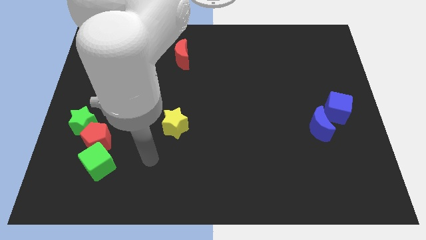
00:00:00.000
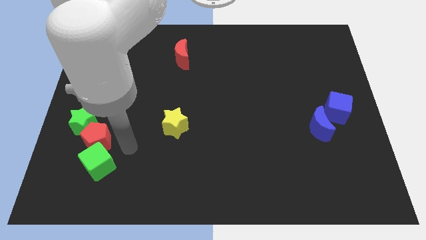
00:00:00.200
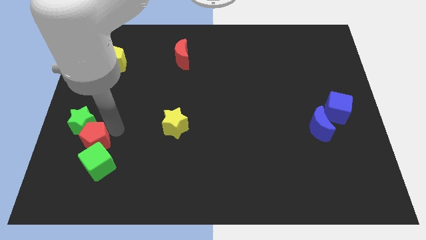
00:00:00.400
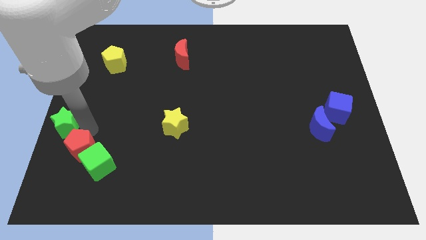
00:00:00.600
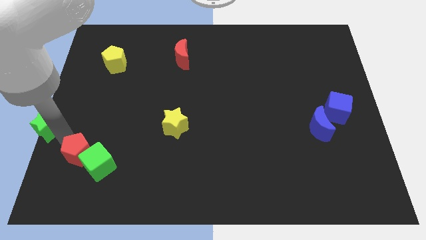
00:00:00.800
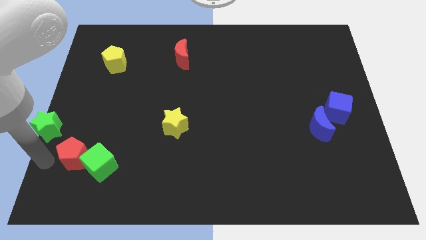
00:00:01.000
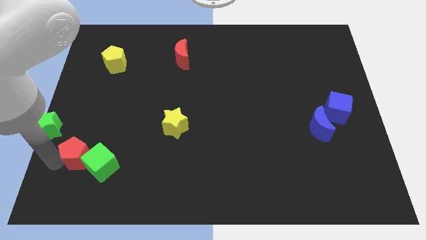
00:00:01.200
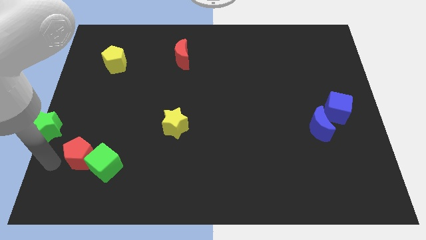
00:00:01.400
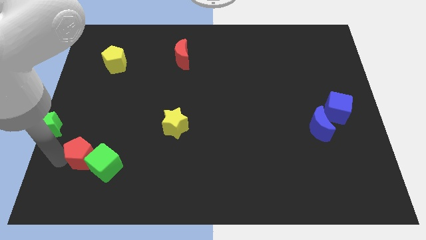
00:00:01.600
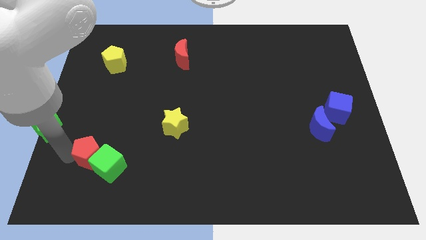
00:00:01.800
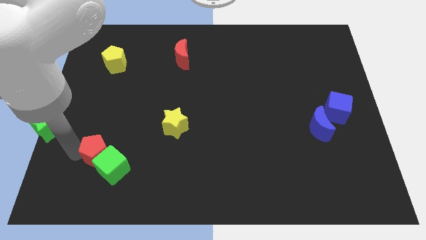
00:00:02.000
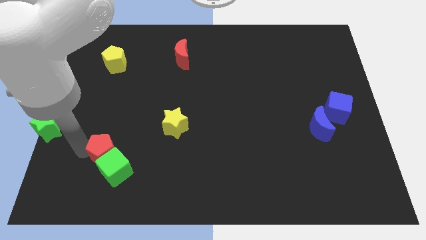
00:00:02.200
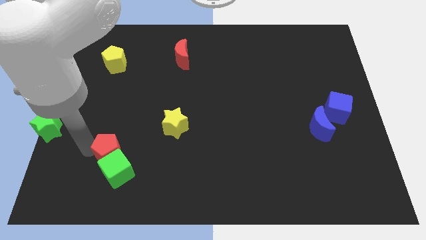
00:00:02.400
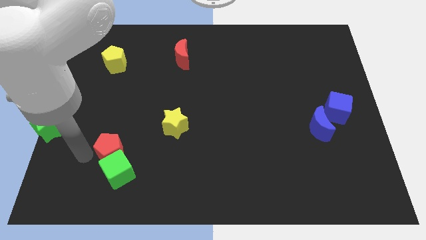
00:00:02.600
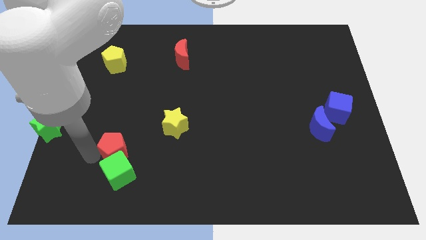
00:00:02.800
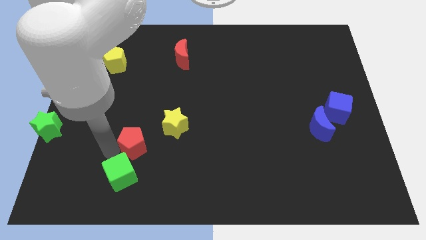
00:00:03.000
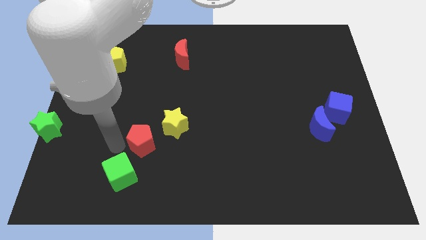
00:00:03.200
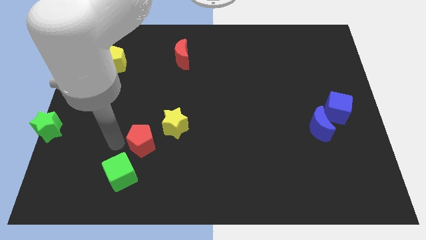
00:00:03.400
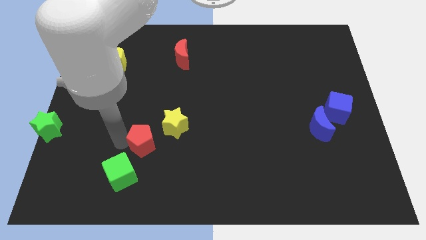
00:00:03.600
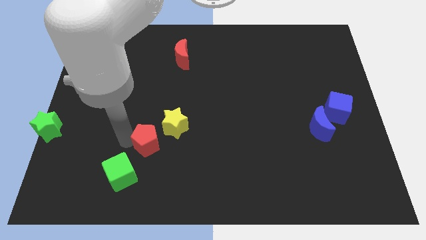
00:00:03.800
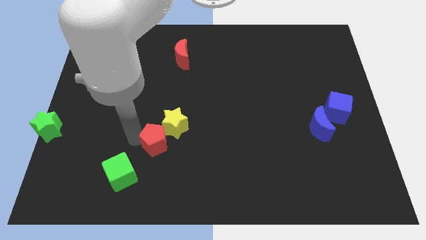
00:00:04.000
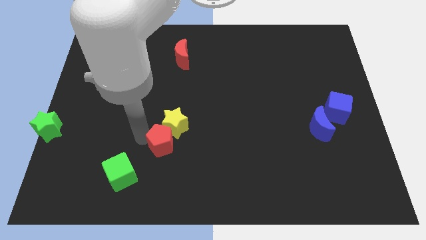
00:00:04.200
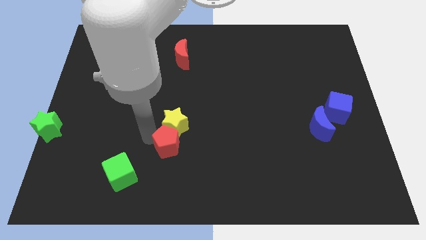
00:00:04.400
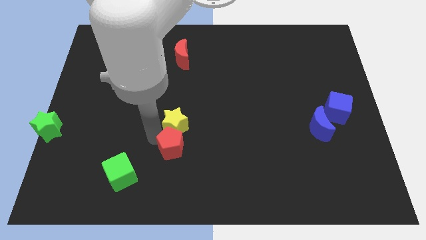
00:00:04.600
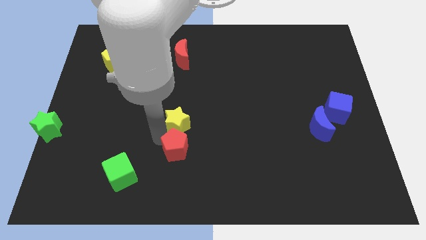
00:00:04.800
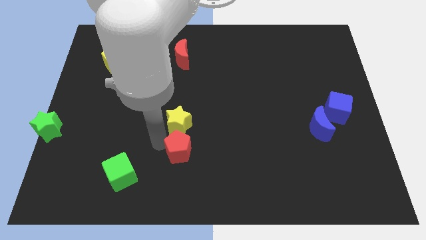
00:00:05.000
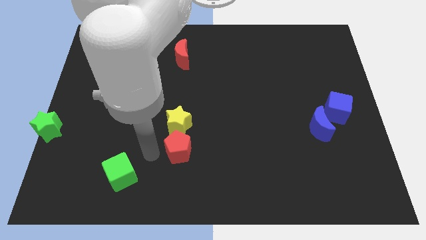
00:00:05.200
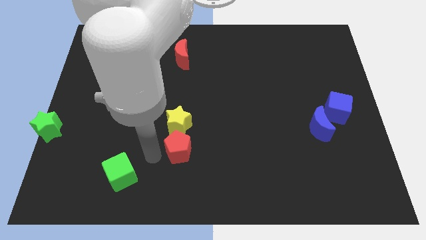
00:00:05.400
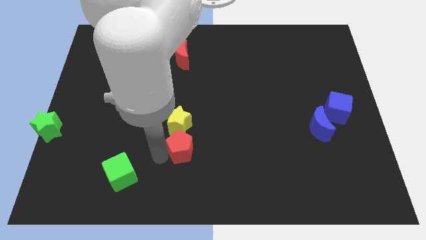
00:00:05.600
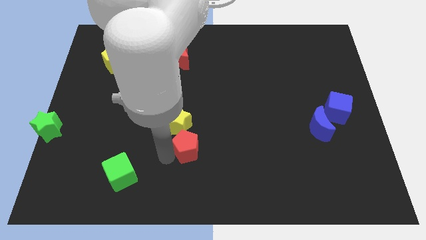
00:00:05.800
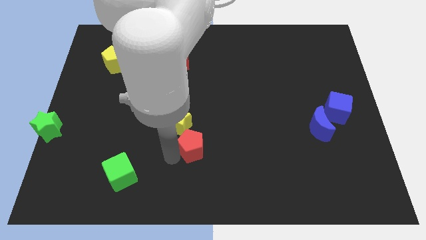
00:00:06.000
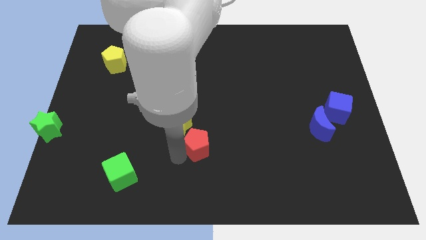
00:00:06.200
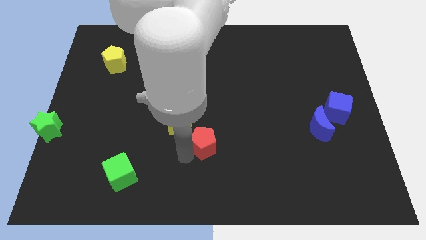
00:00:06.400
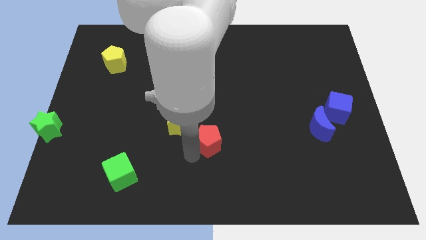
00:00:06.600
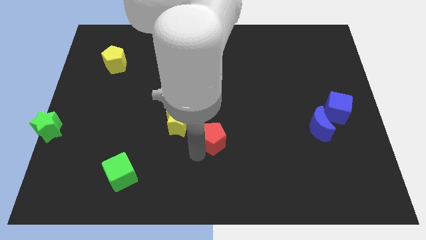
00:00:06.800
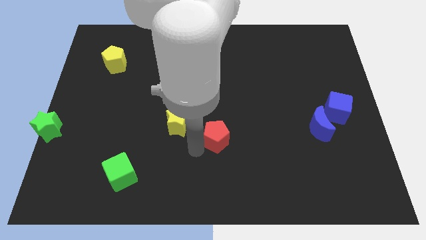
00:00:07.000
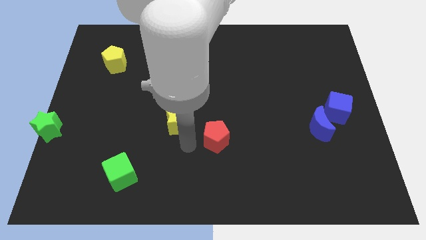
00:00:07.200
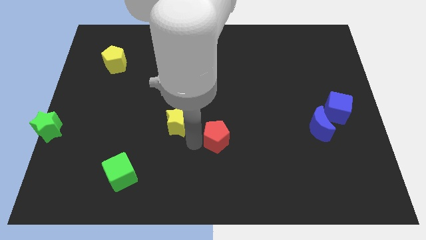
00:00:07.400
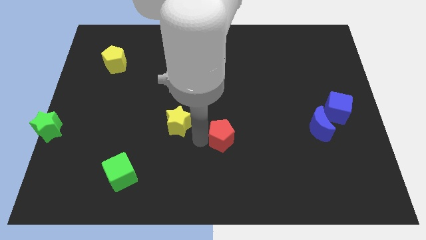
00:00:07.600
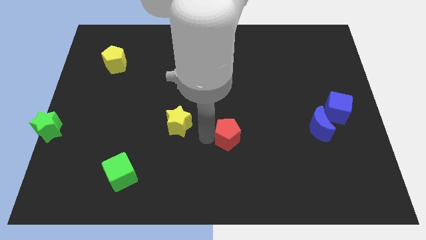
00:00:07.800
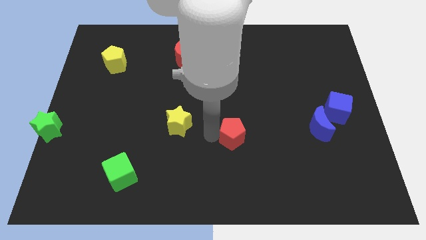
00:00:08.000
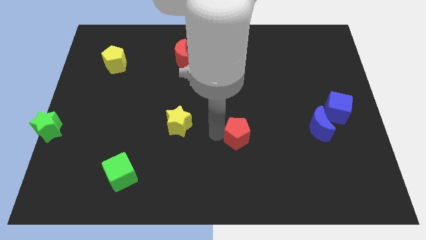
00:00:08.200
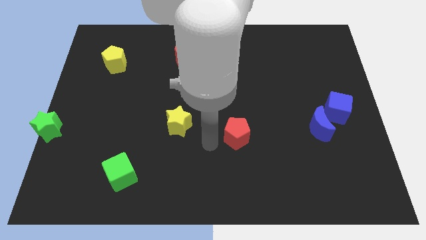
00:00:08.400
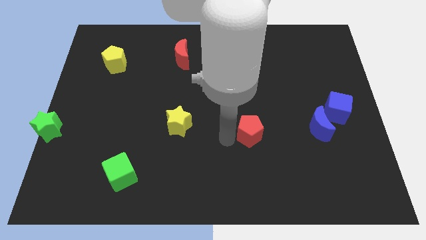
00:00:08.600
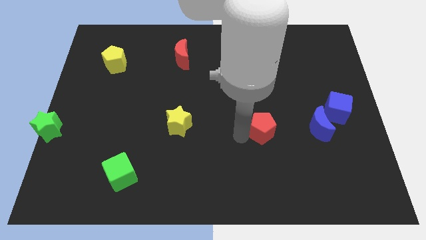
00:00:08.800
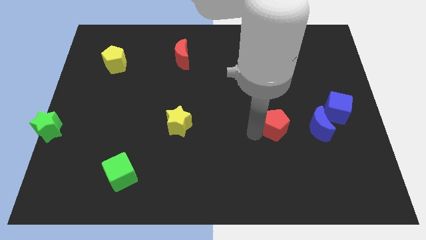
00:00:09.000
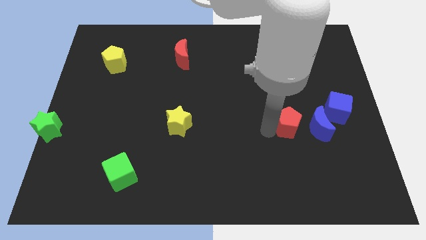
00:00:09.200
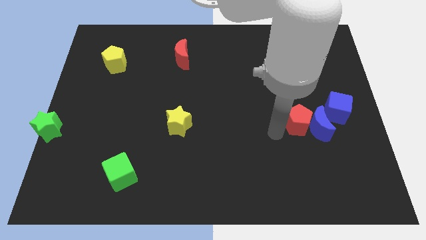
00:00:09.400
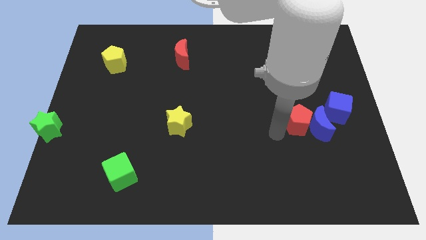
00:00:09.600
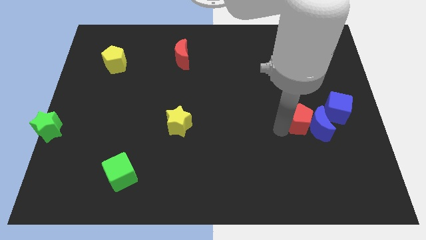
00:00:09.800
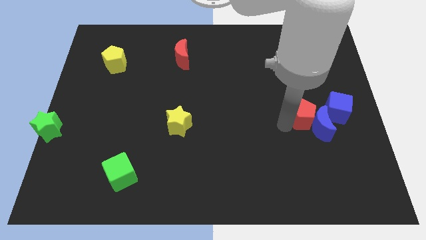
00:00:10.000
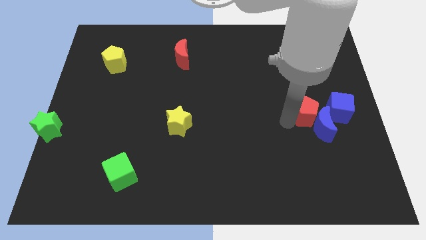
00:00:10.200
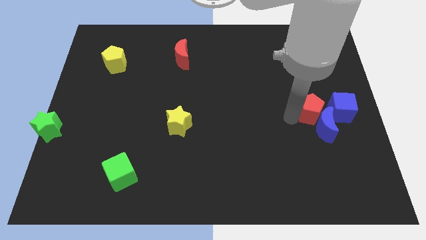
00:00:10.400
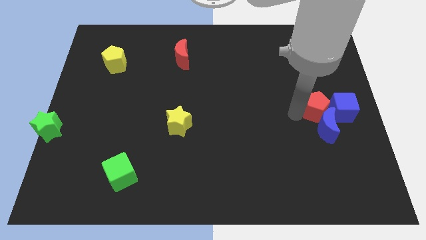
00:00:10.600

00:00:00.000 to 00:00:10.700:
push the red pentagon to the blue cube

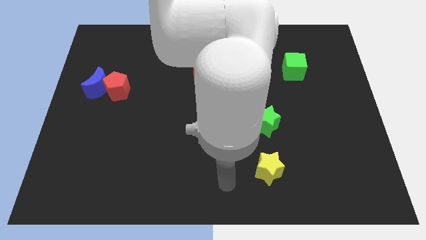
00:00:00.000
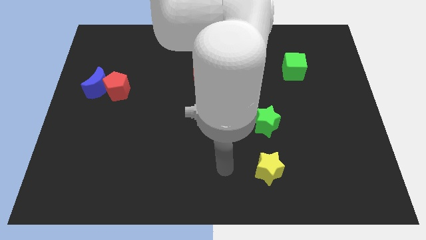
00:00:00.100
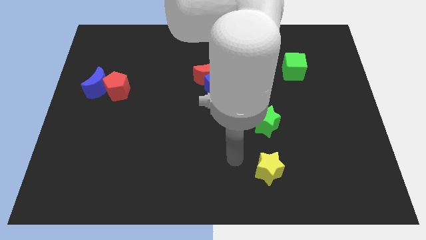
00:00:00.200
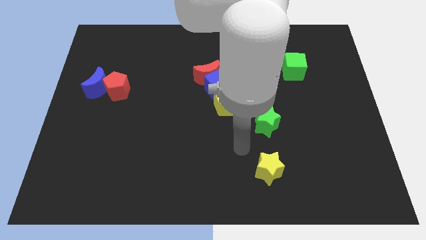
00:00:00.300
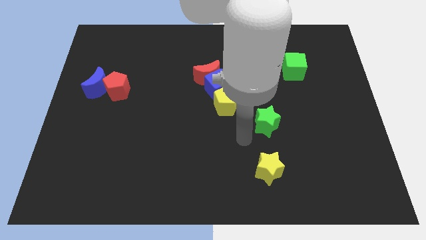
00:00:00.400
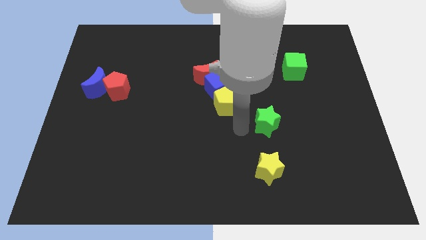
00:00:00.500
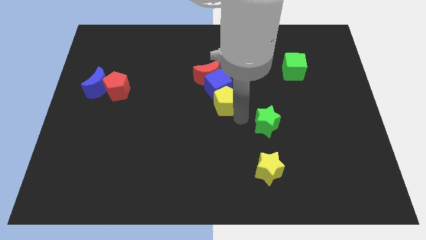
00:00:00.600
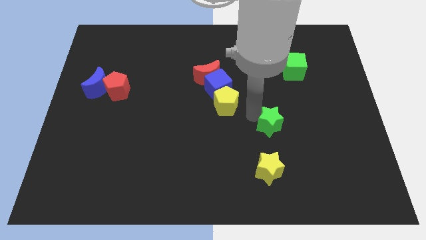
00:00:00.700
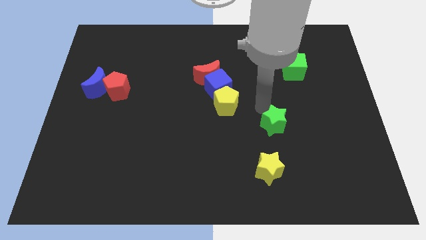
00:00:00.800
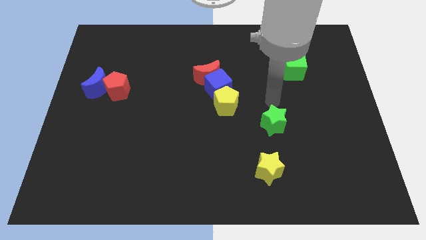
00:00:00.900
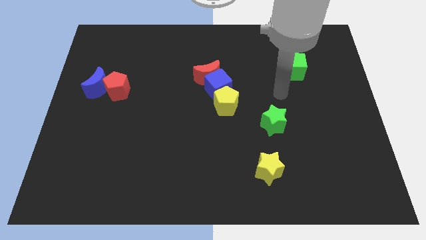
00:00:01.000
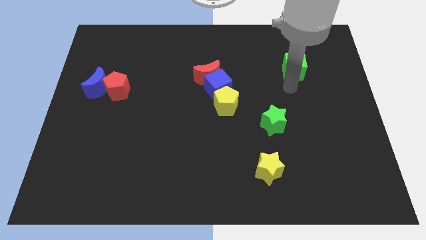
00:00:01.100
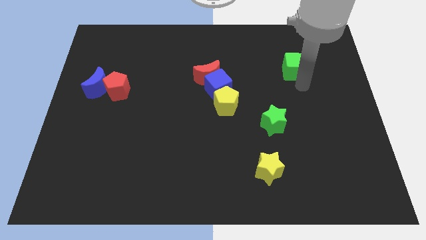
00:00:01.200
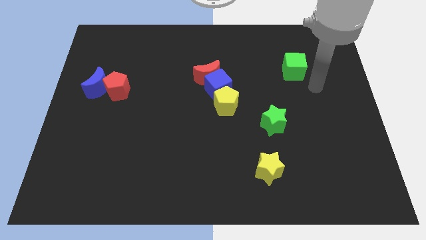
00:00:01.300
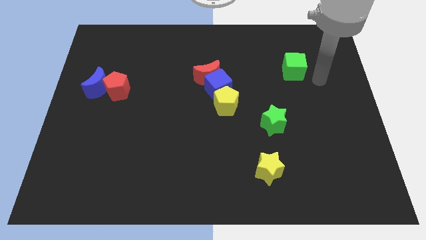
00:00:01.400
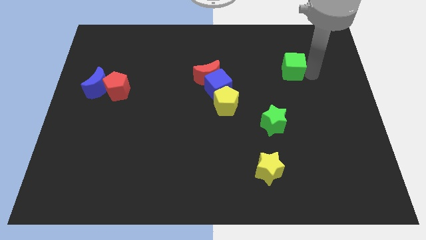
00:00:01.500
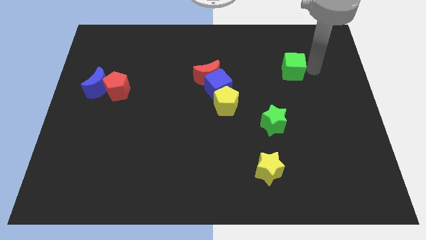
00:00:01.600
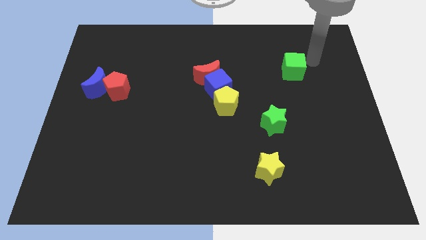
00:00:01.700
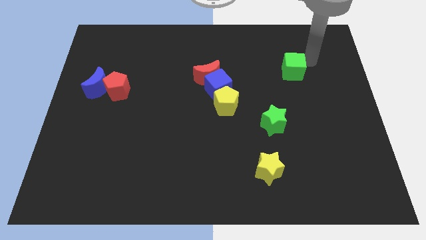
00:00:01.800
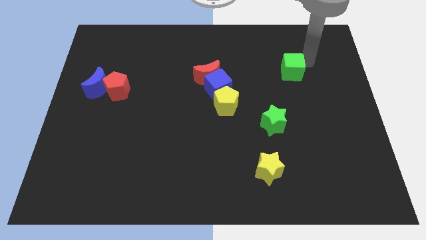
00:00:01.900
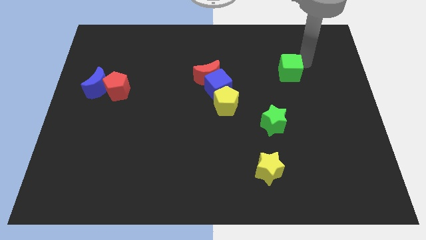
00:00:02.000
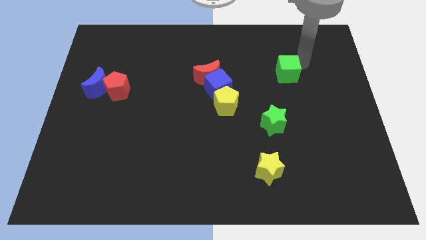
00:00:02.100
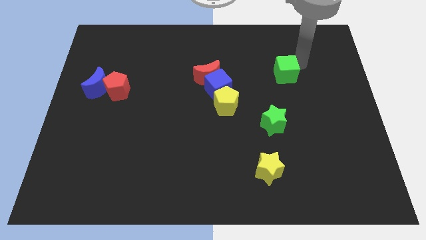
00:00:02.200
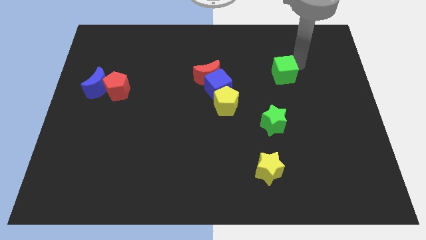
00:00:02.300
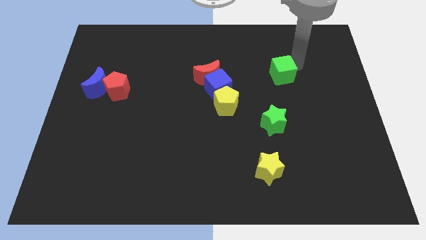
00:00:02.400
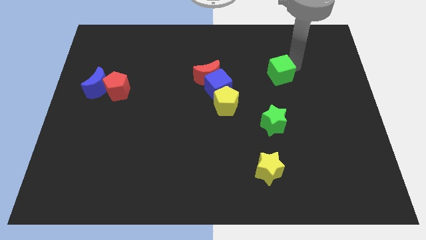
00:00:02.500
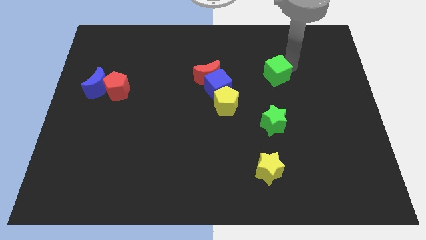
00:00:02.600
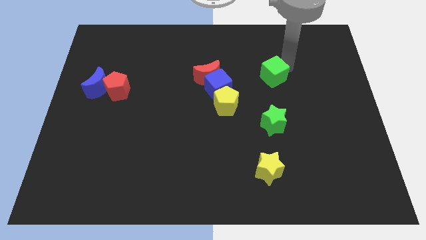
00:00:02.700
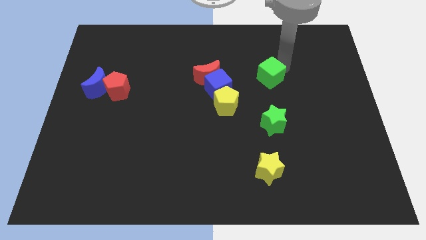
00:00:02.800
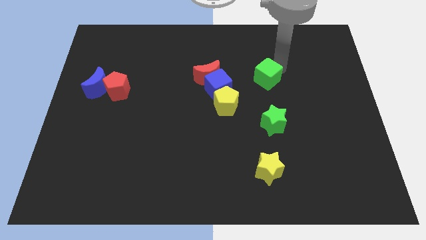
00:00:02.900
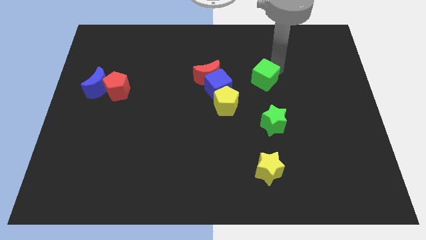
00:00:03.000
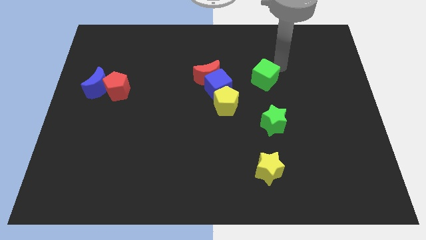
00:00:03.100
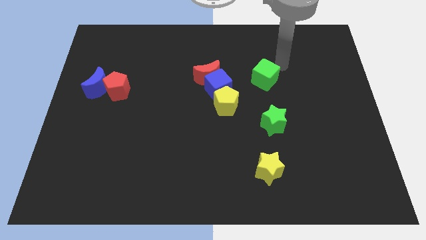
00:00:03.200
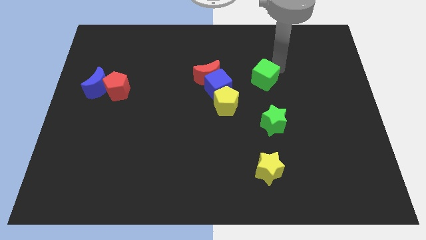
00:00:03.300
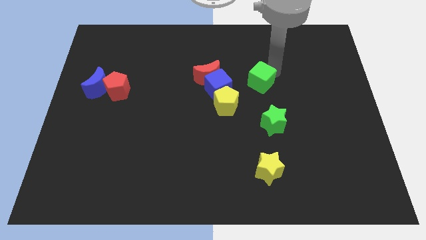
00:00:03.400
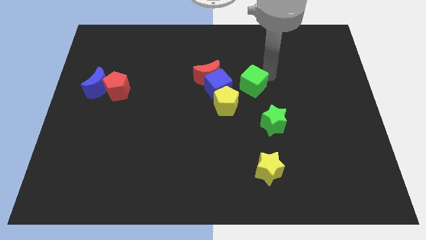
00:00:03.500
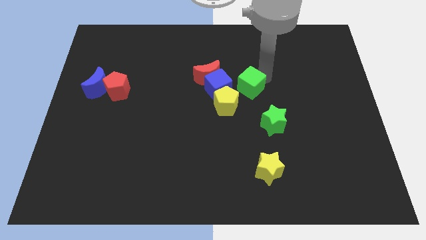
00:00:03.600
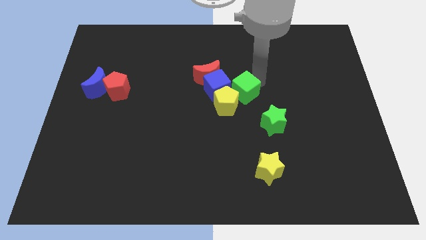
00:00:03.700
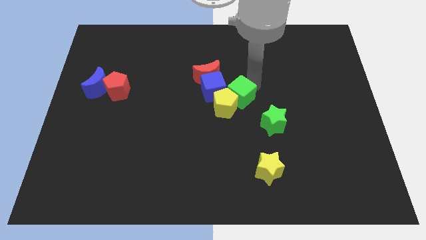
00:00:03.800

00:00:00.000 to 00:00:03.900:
push the green cube towards the yellow pentagon
